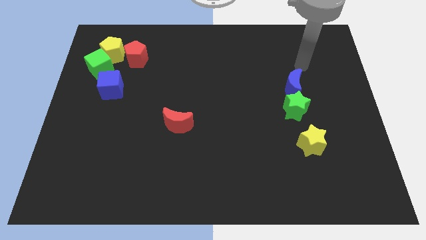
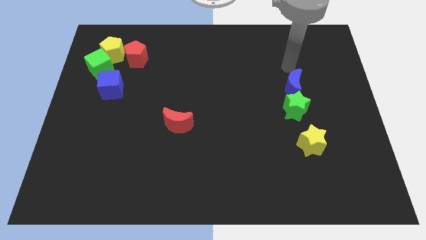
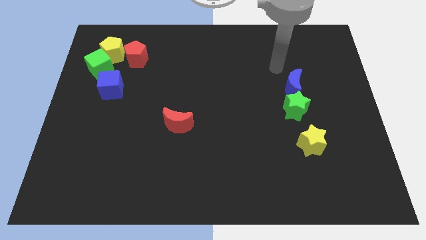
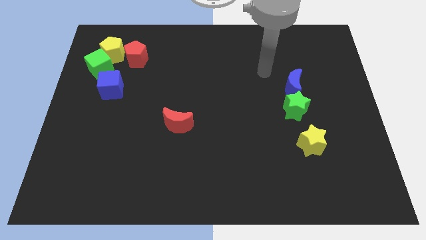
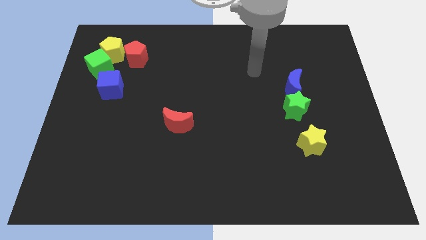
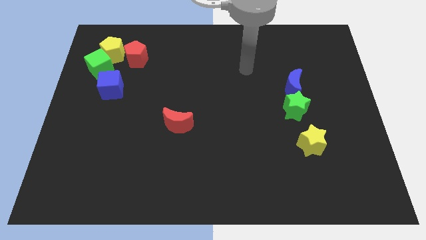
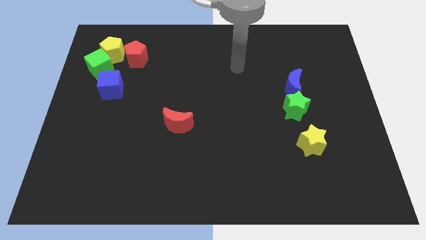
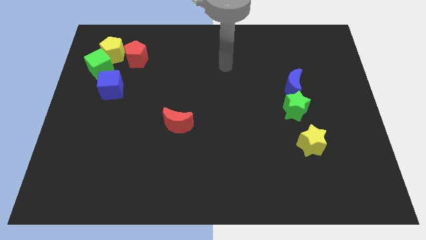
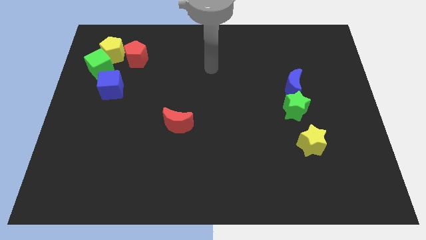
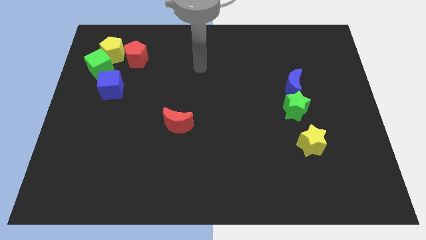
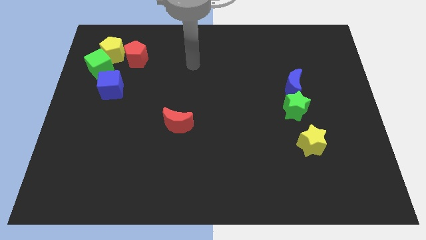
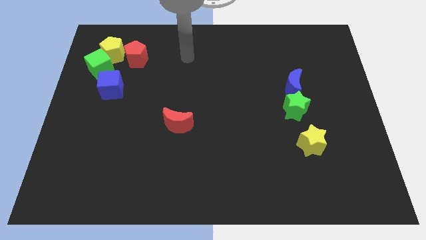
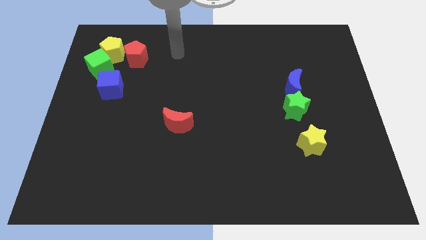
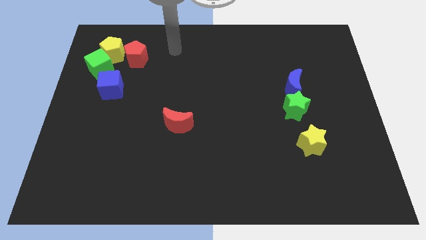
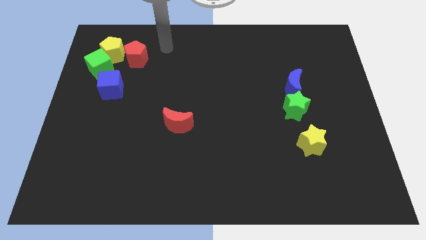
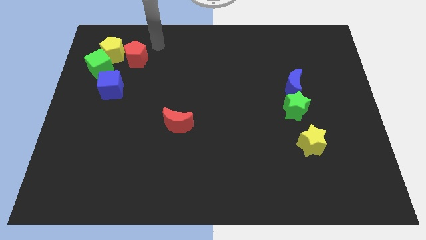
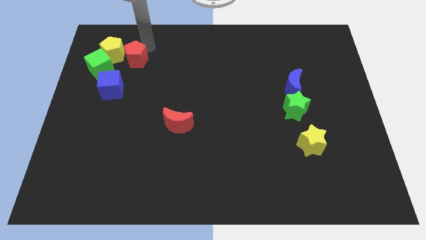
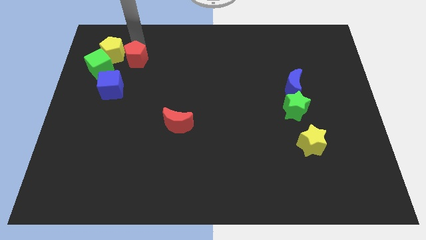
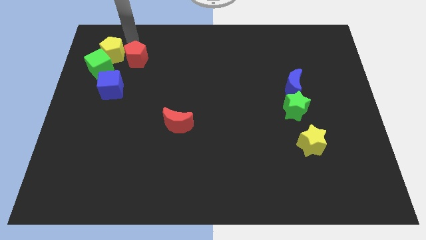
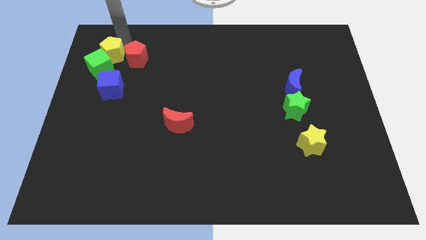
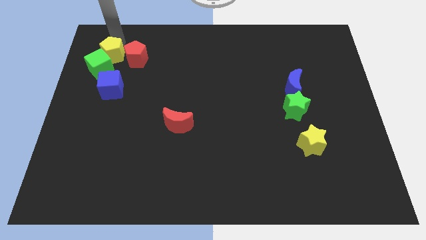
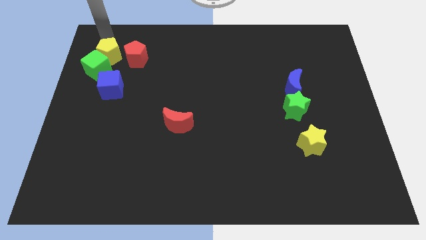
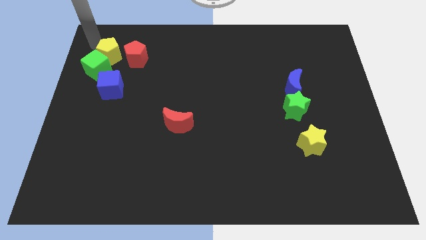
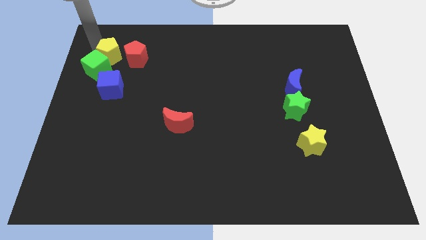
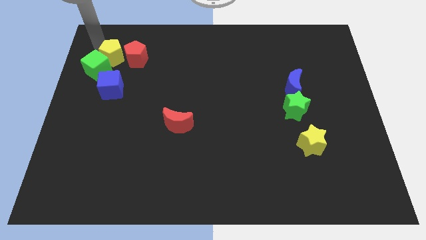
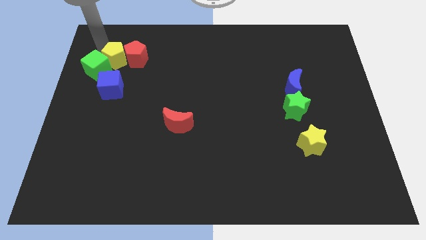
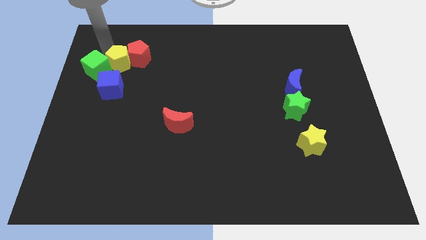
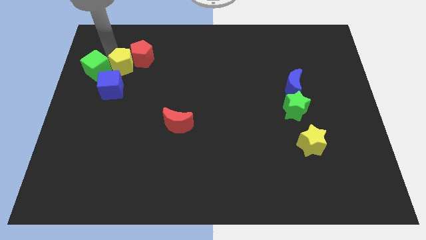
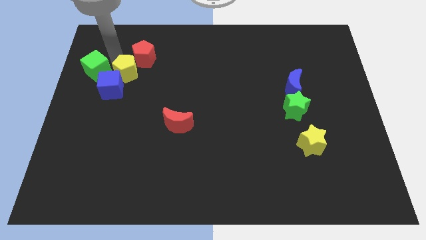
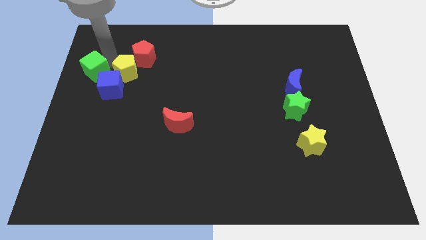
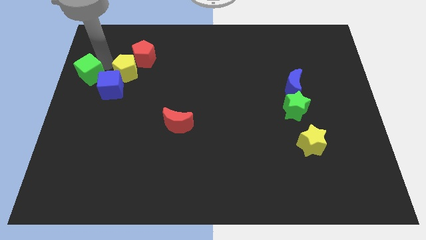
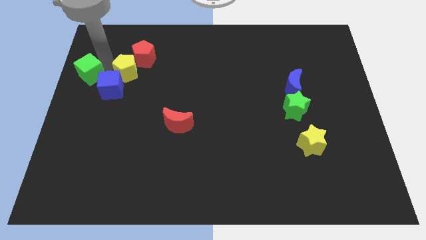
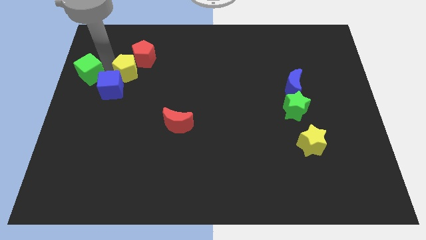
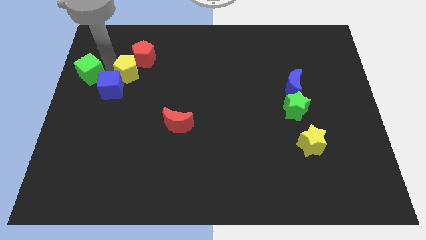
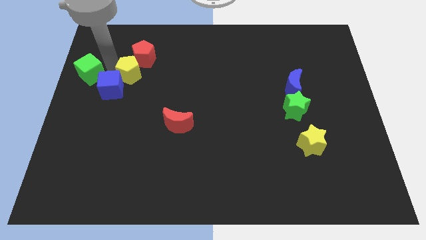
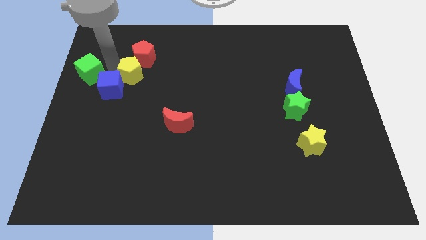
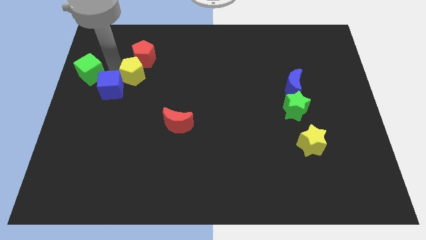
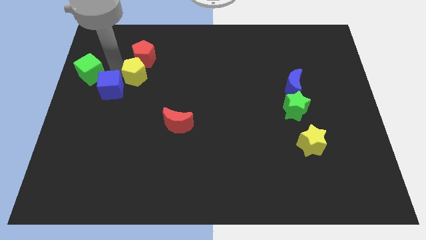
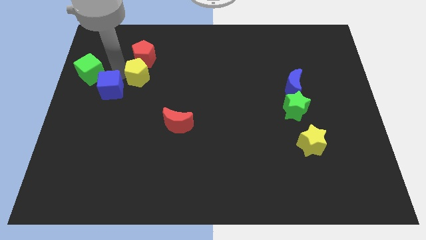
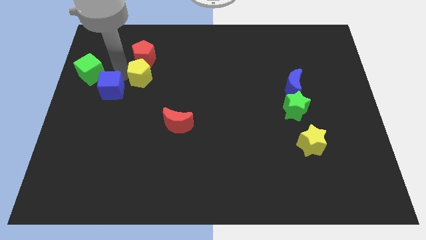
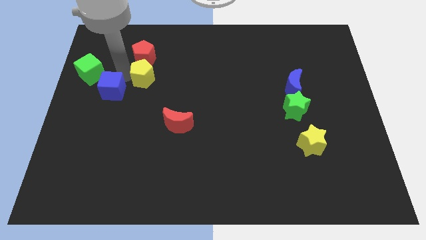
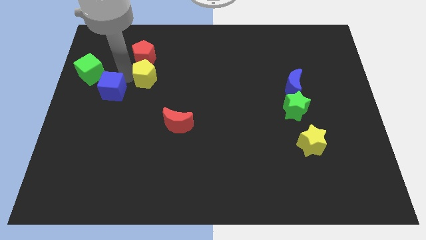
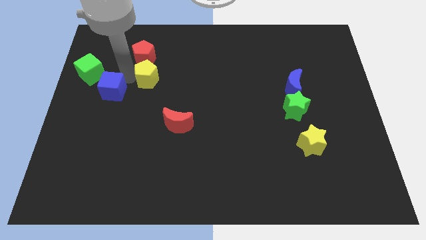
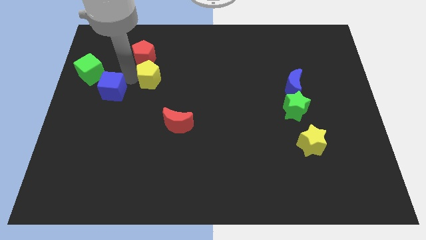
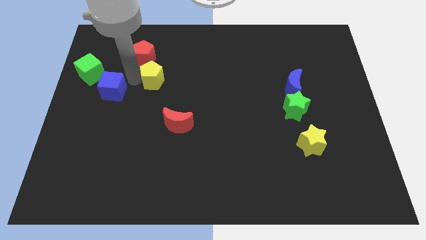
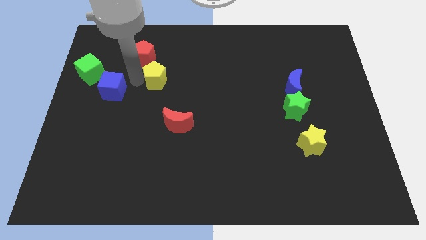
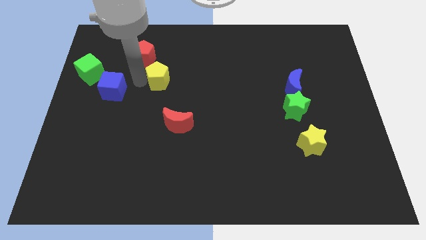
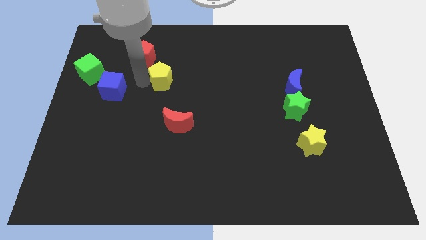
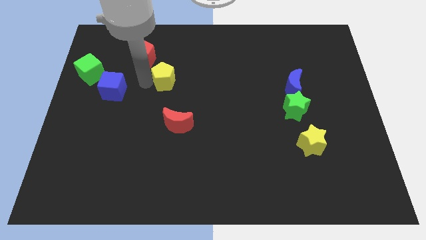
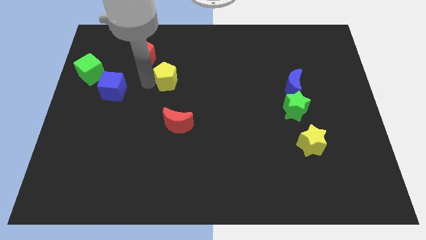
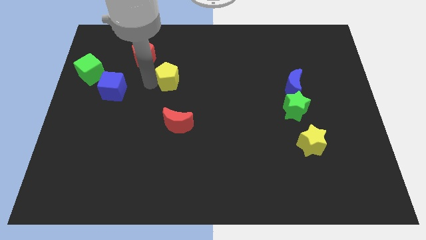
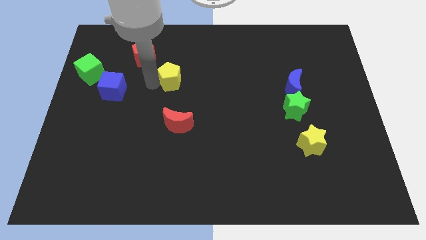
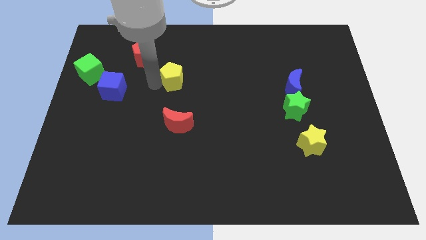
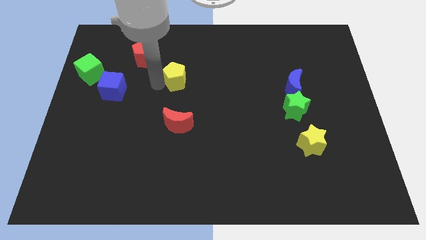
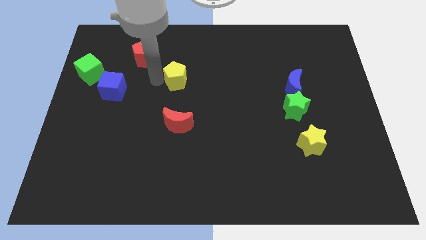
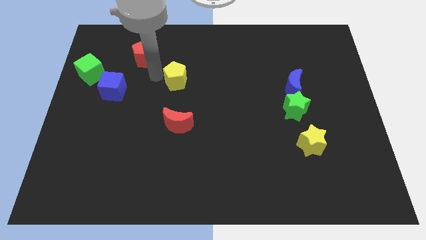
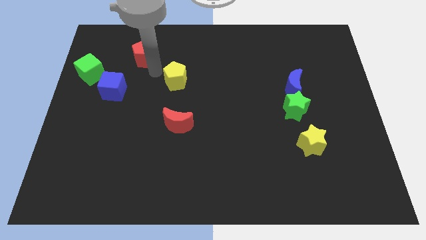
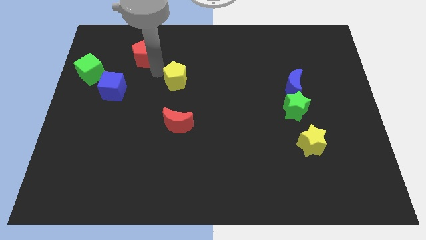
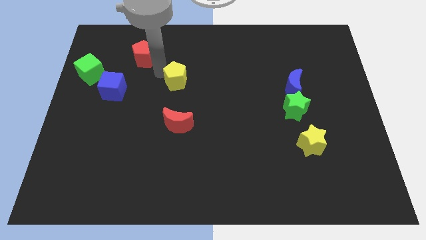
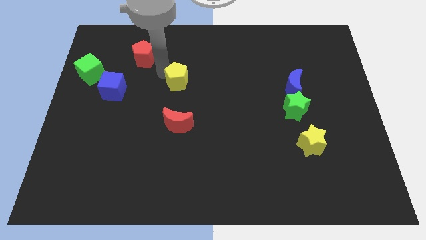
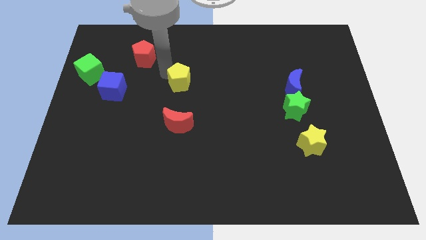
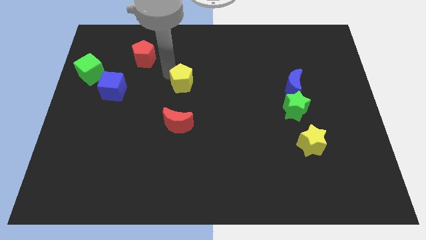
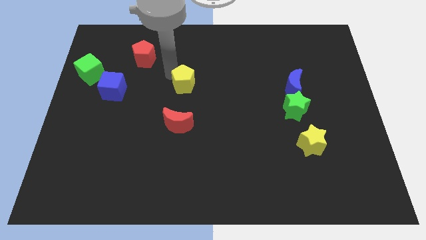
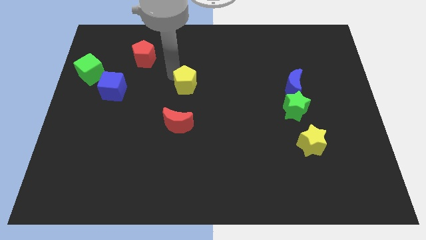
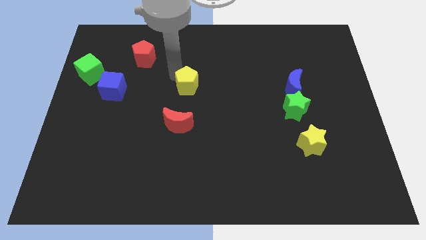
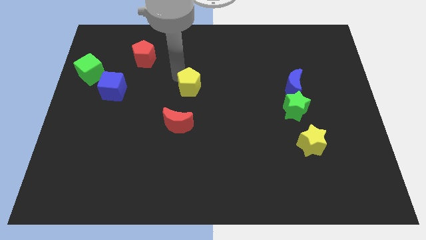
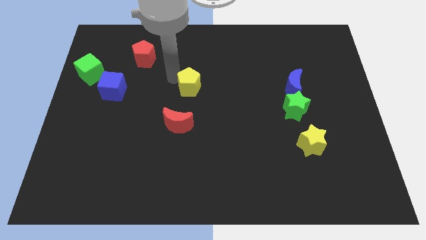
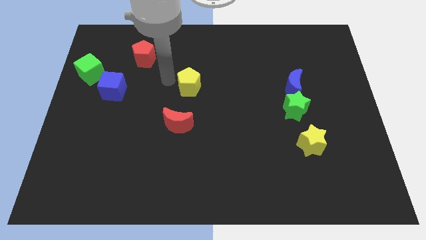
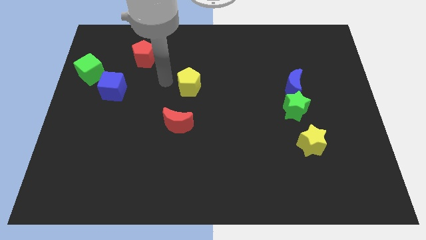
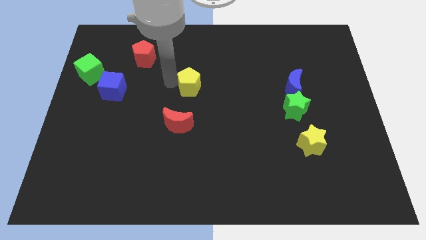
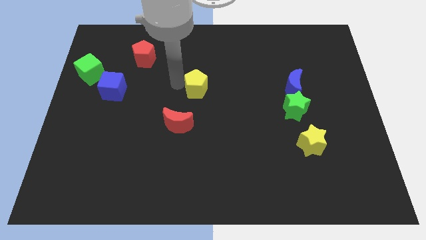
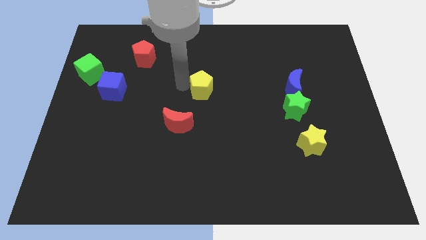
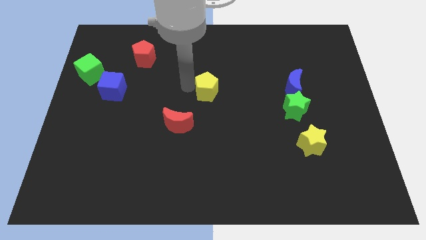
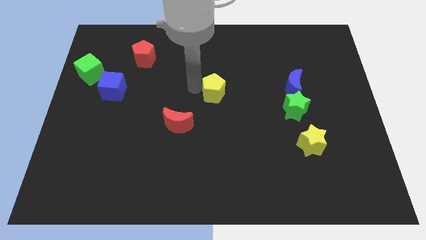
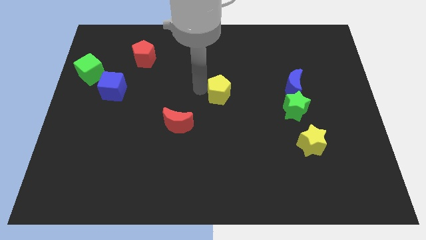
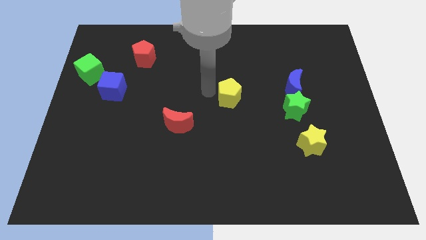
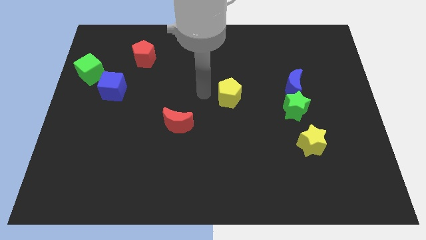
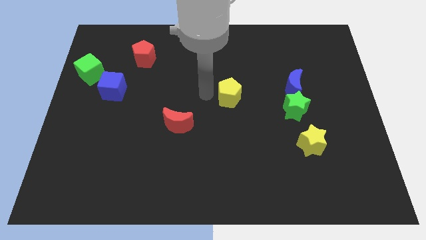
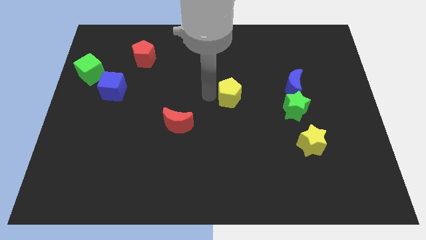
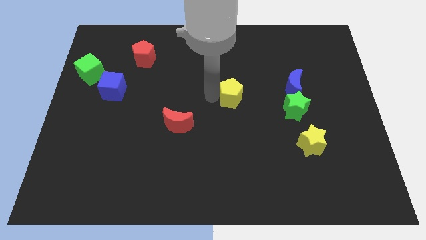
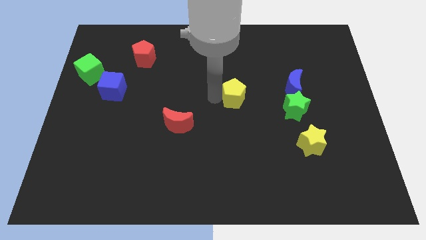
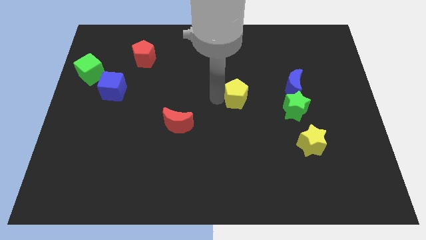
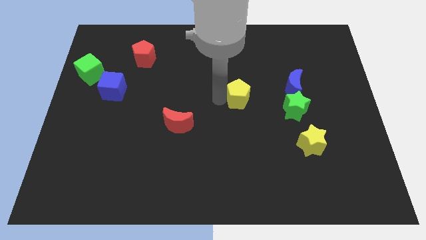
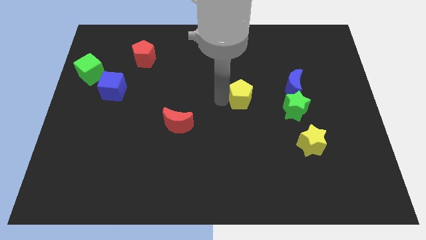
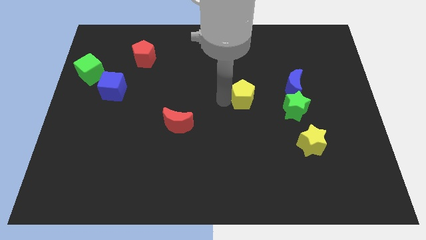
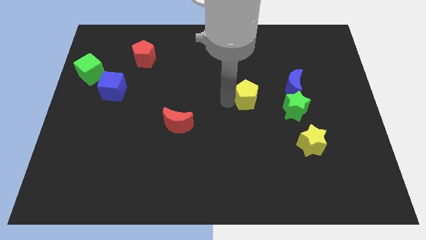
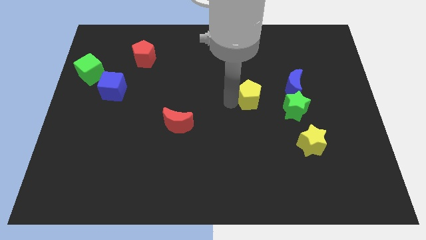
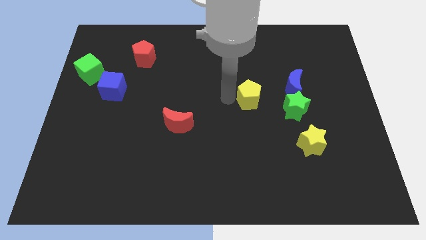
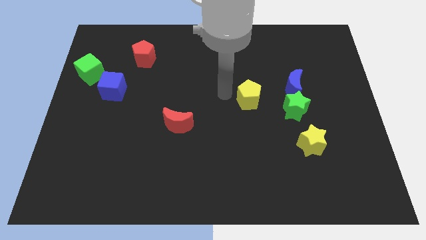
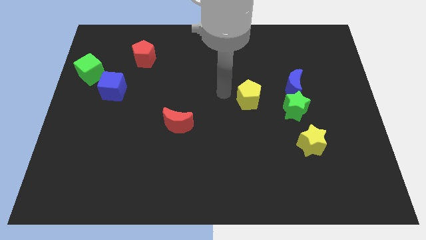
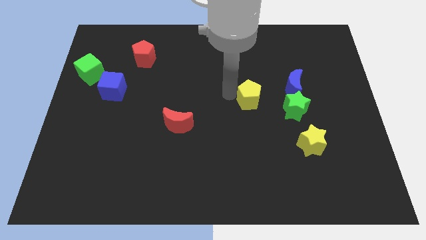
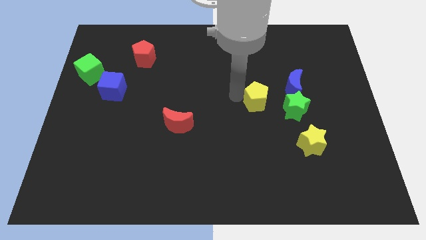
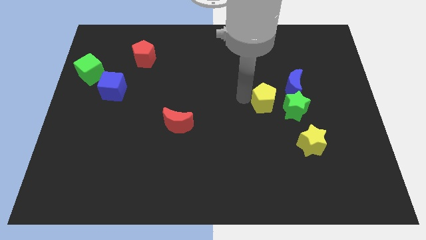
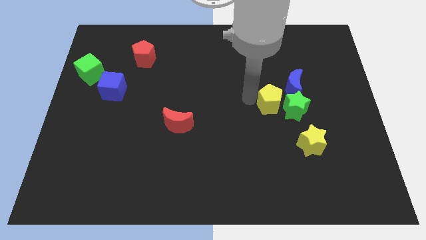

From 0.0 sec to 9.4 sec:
put the yellow pentagon towards the green star
